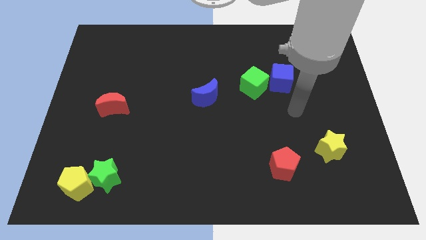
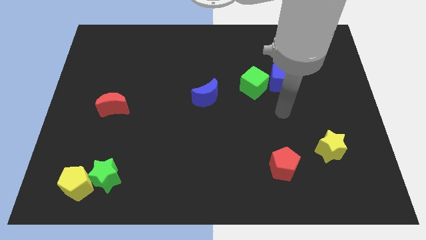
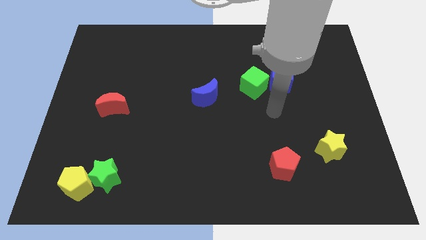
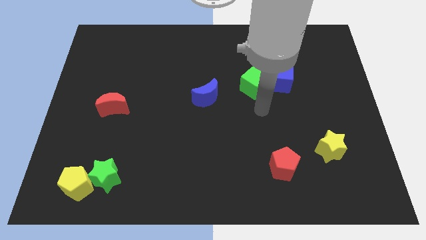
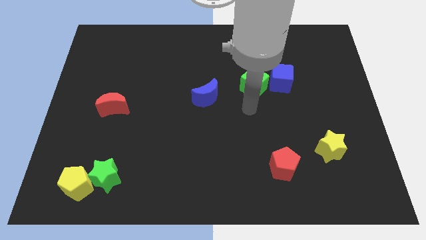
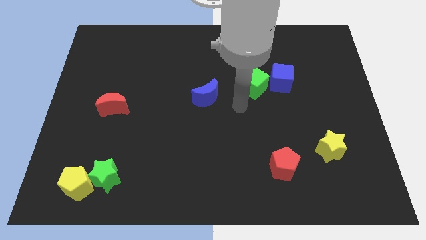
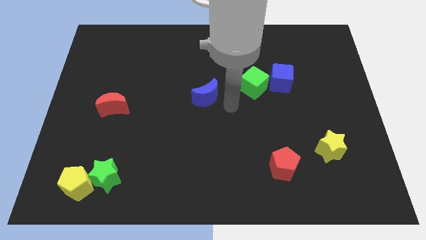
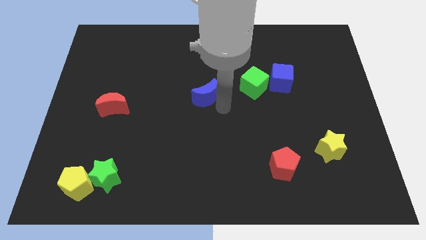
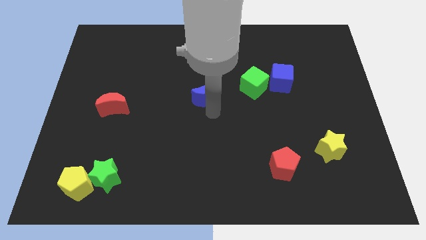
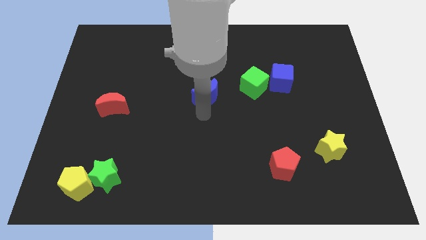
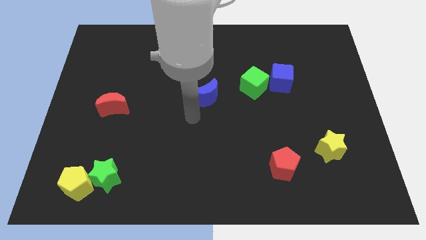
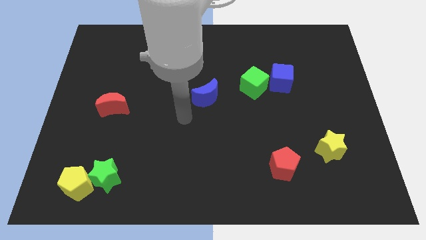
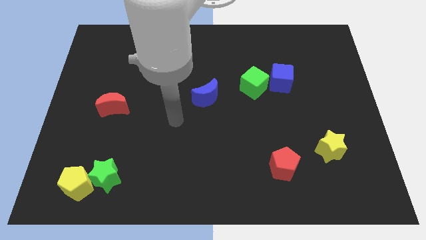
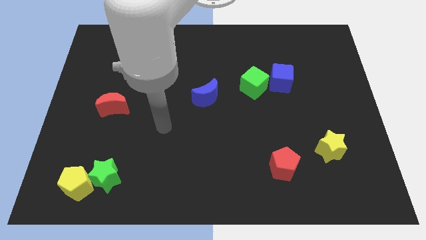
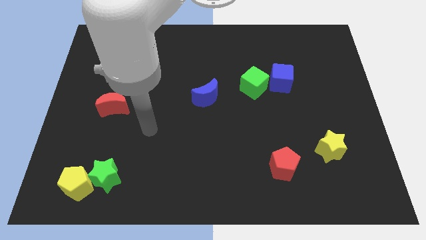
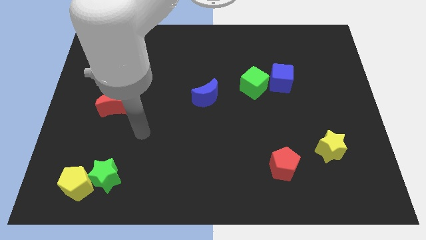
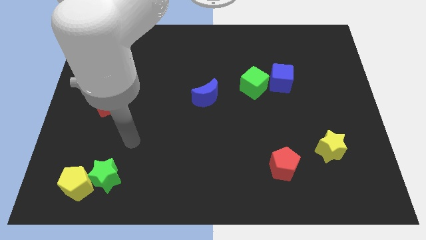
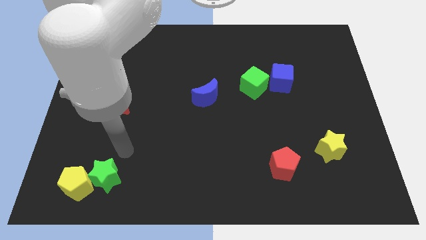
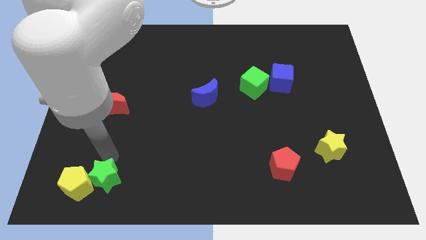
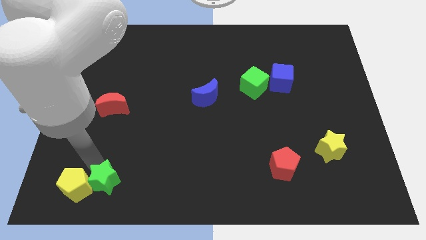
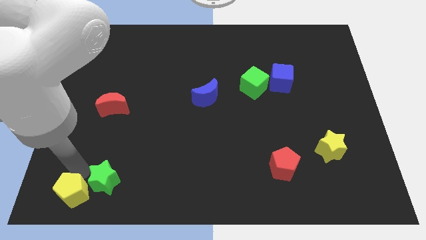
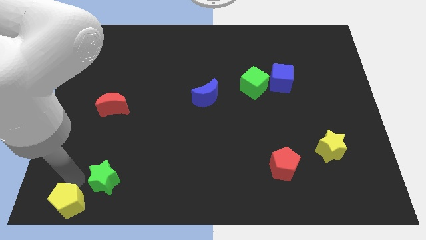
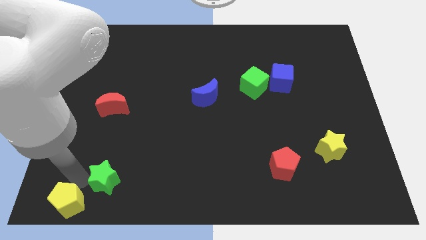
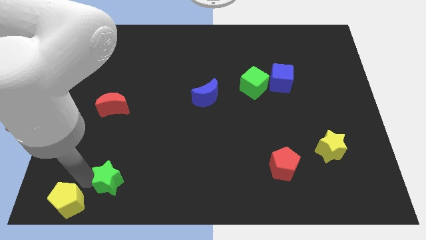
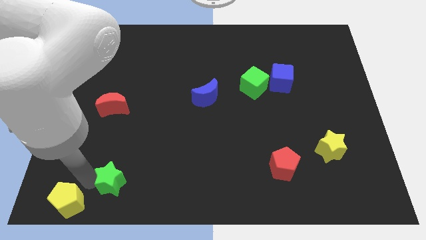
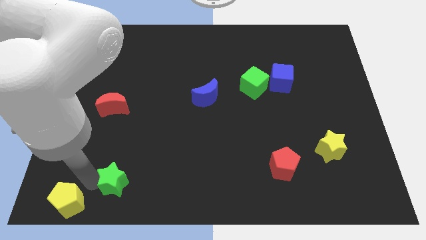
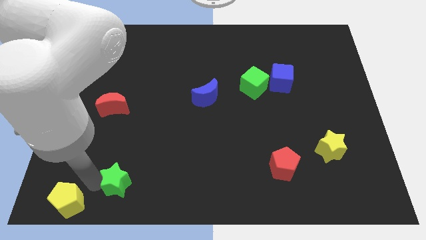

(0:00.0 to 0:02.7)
pull the green star apart from the yellow pentagon

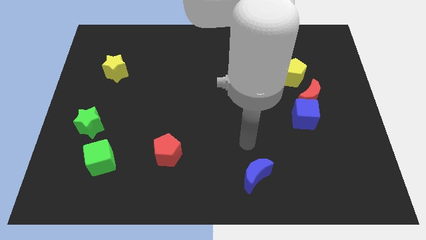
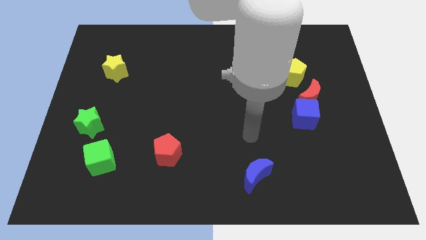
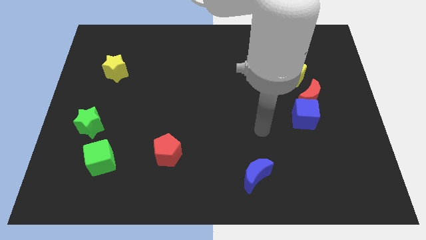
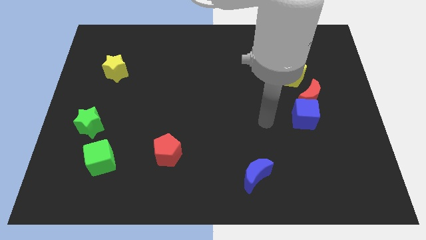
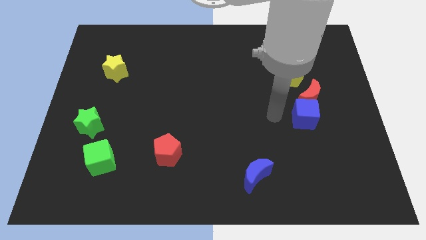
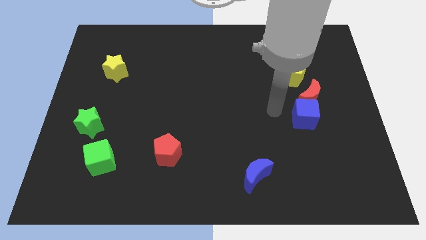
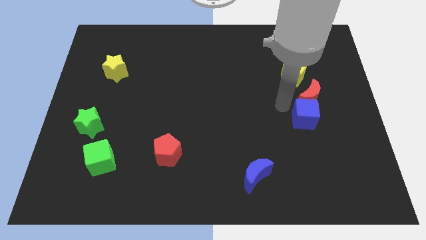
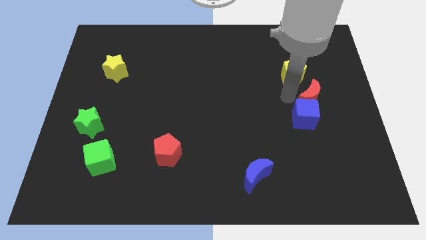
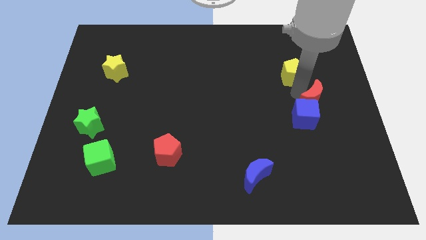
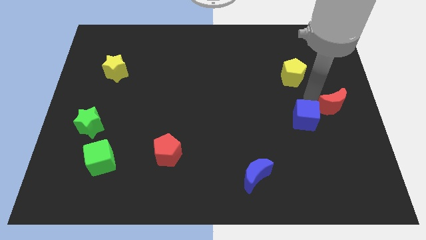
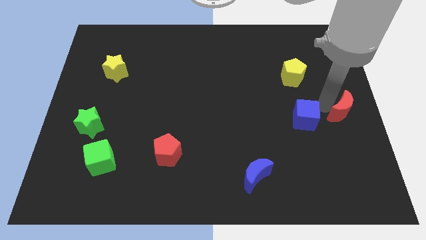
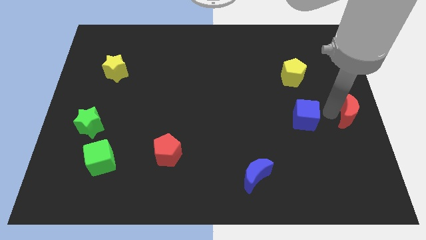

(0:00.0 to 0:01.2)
move the blue cube away from the red moon

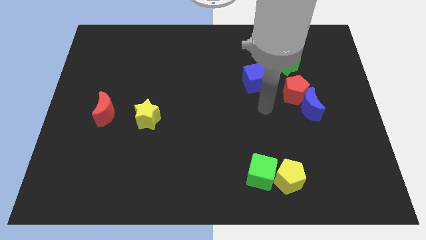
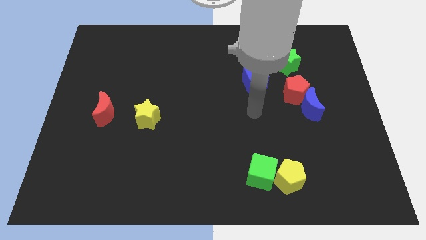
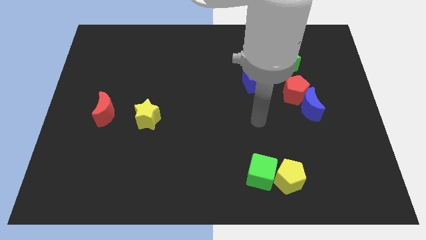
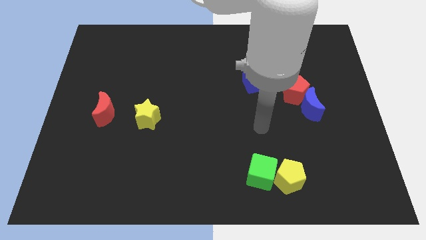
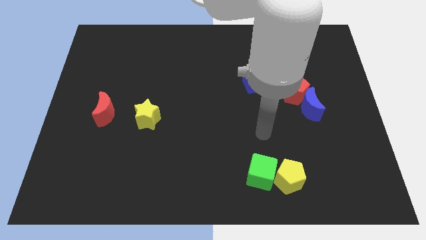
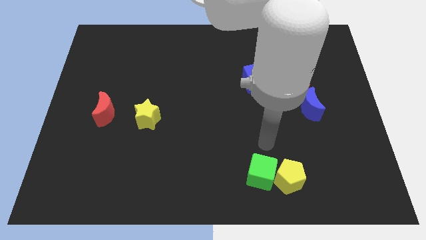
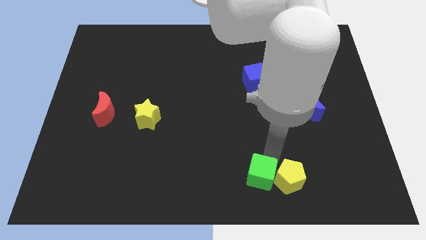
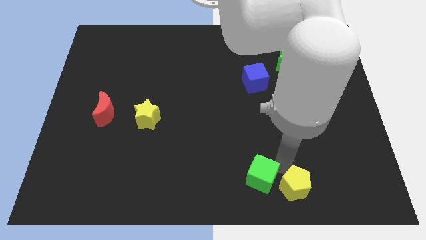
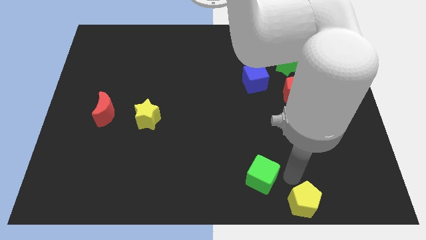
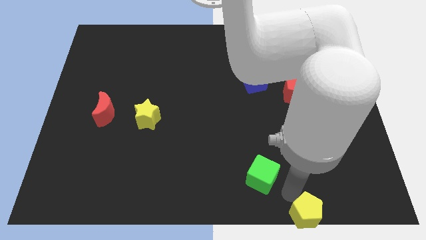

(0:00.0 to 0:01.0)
pull the green cube apart from the yellow pentagon

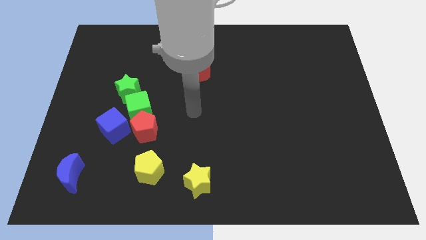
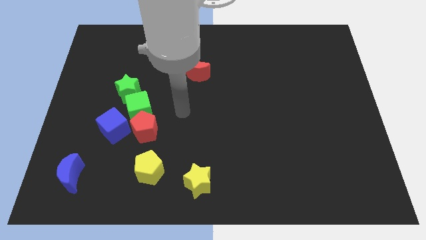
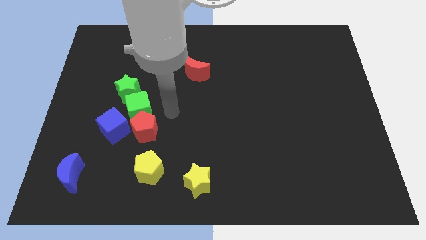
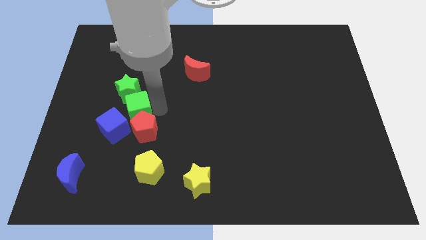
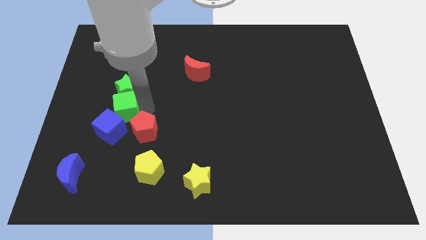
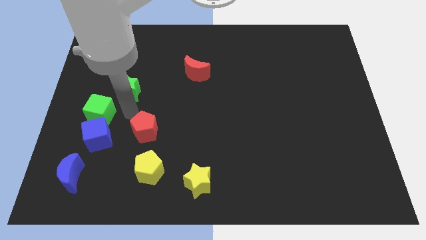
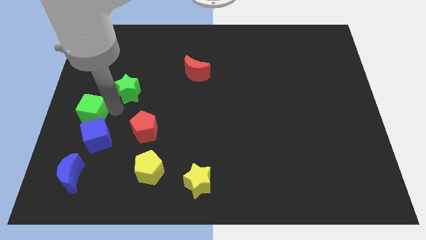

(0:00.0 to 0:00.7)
pull the green star apart from the green cube

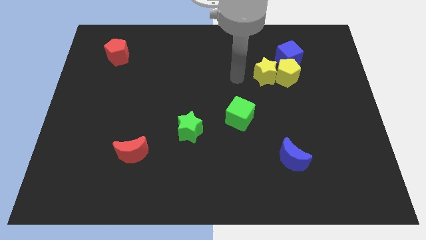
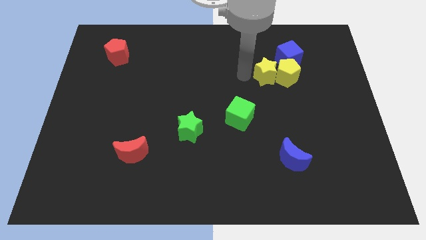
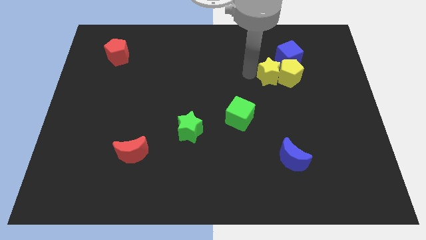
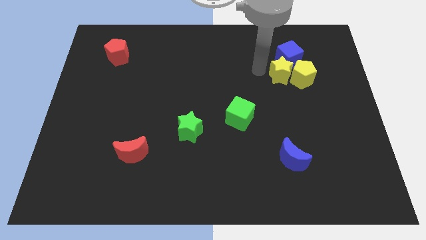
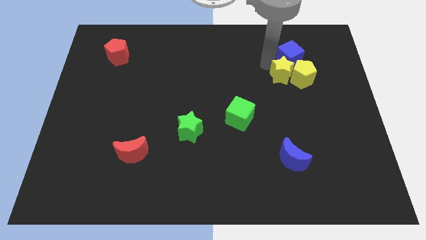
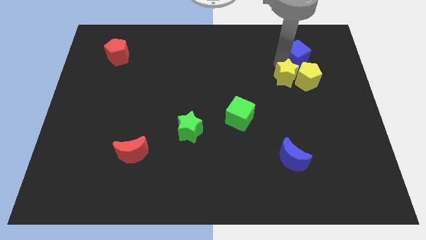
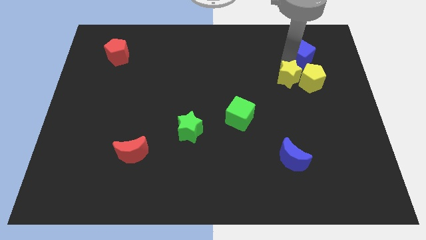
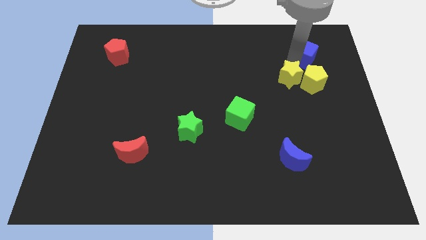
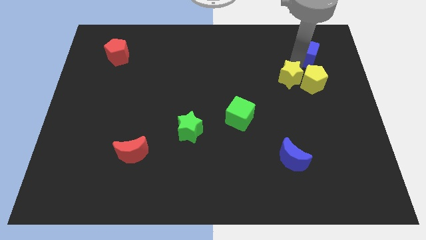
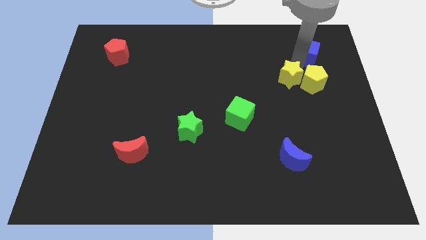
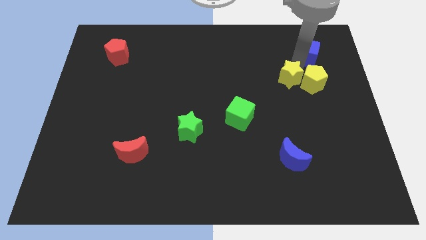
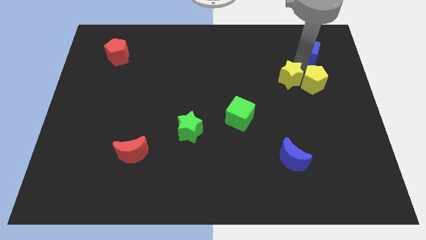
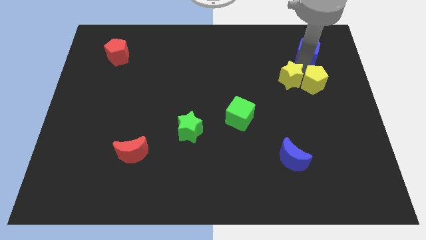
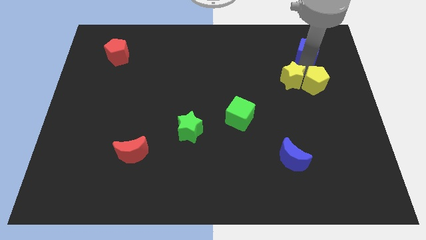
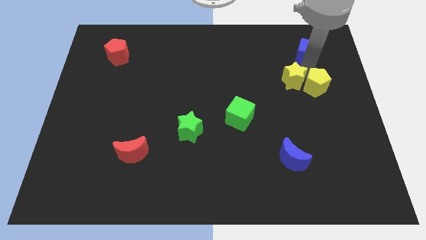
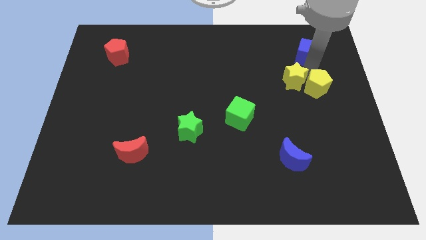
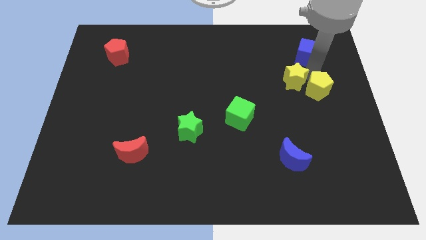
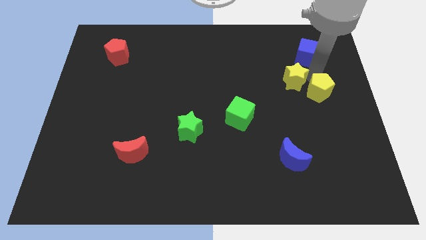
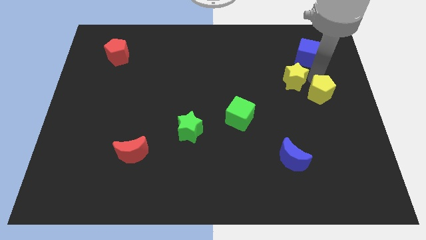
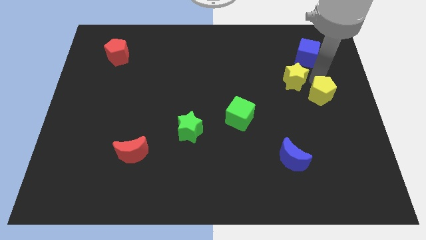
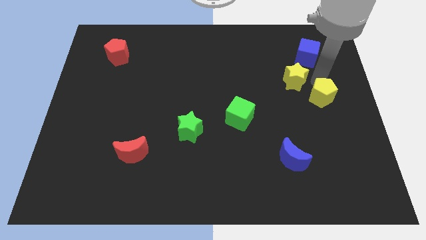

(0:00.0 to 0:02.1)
move the yellow pentagon away from the yellow star and blue cube

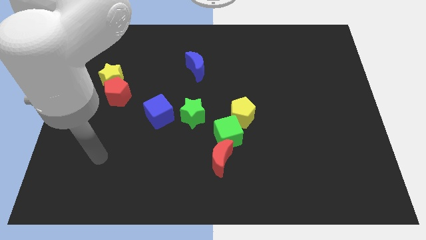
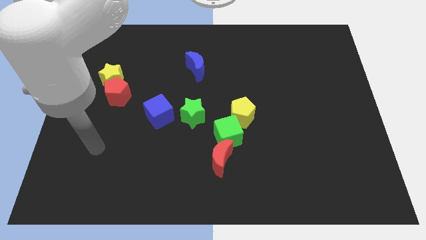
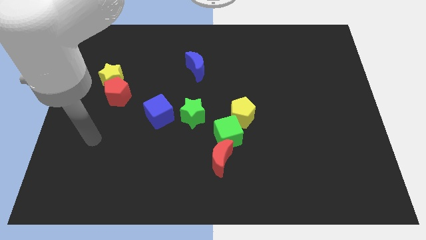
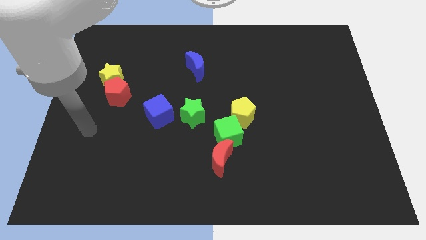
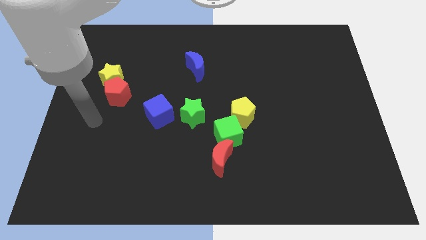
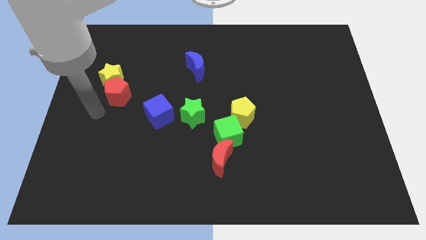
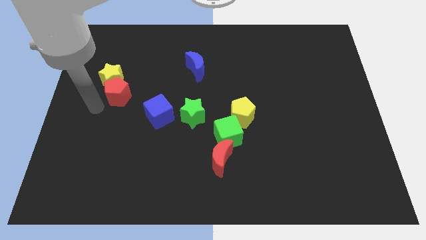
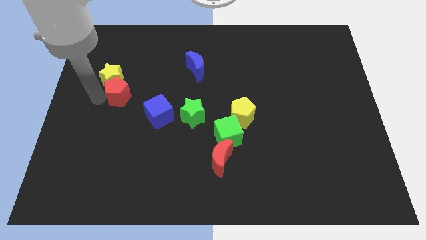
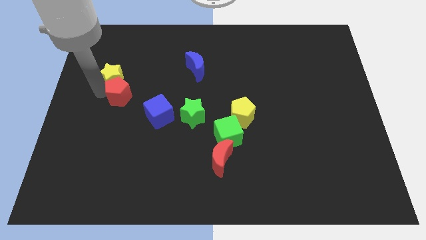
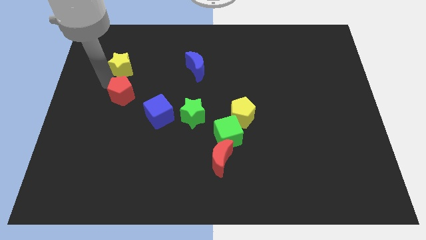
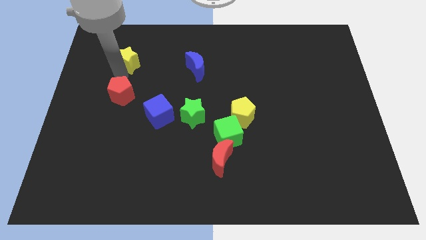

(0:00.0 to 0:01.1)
separate the red pentagon from the yellow star

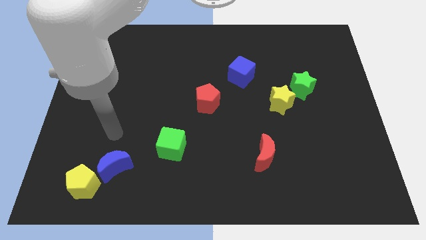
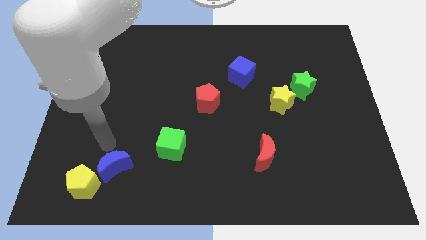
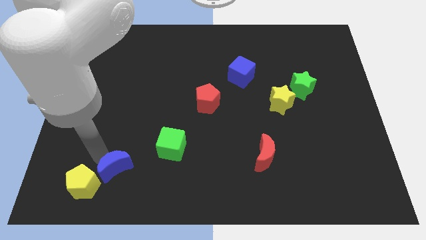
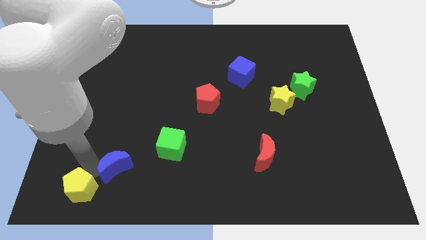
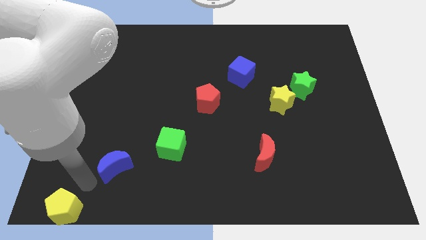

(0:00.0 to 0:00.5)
separate the blue moon from the yellow pentagon
